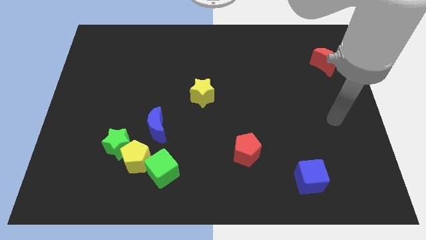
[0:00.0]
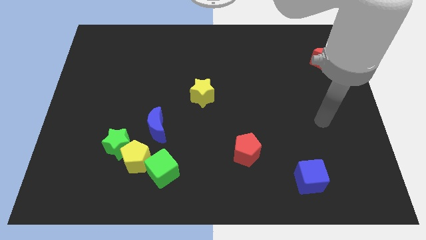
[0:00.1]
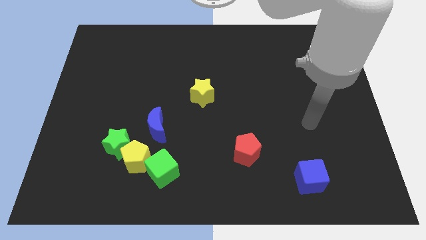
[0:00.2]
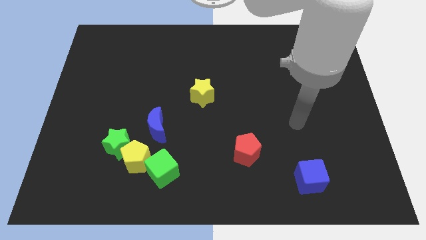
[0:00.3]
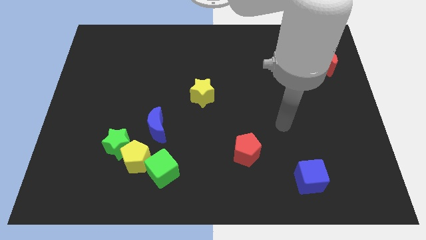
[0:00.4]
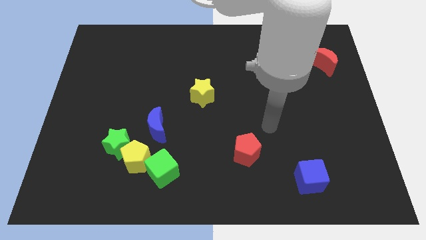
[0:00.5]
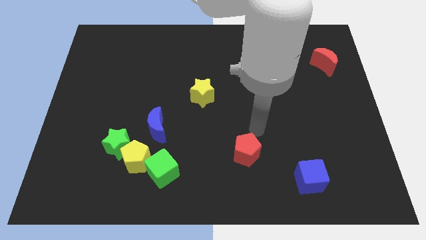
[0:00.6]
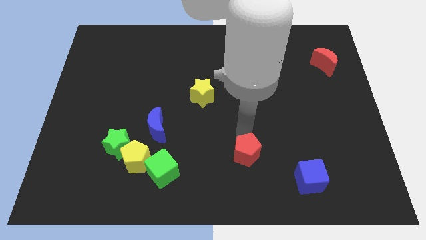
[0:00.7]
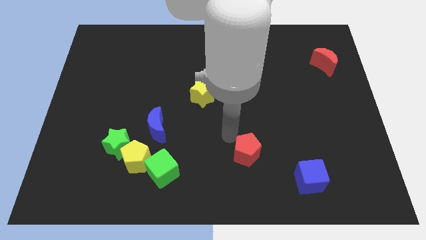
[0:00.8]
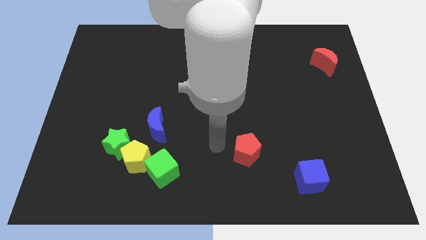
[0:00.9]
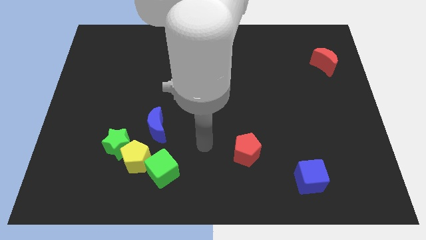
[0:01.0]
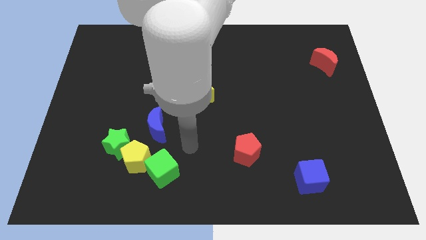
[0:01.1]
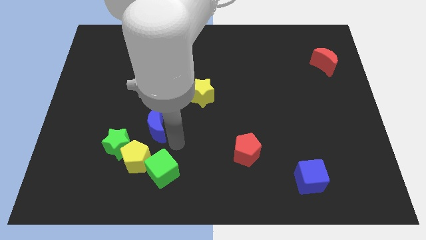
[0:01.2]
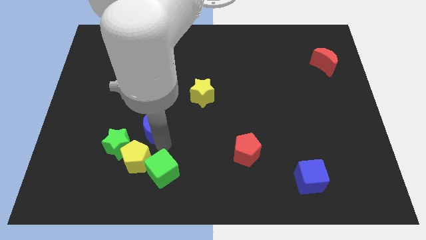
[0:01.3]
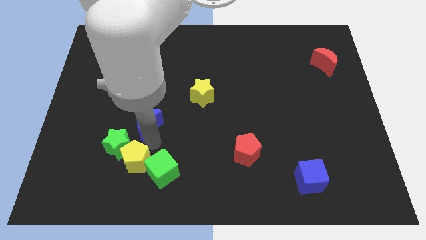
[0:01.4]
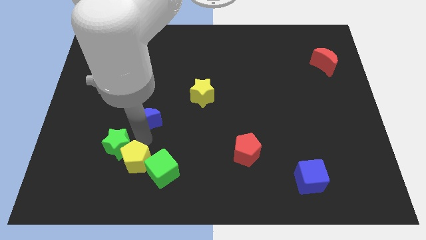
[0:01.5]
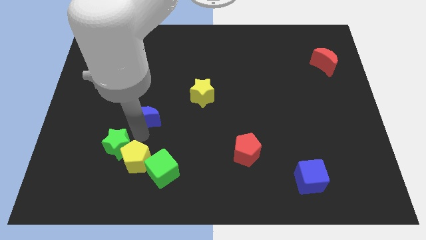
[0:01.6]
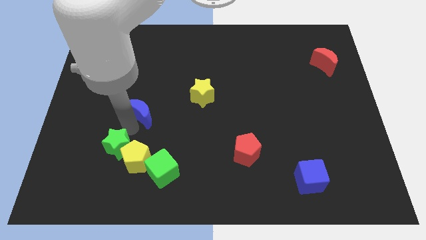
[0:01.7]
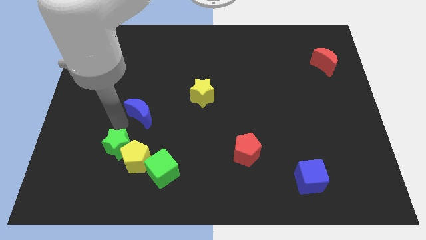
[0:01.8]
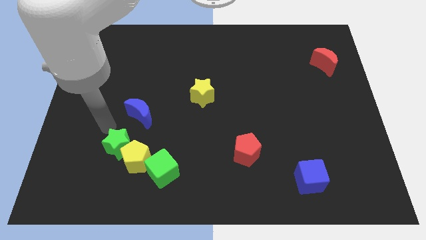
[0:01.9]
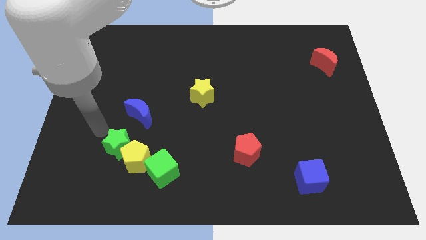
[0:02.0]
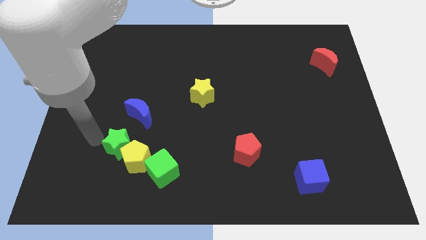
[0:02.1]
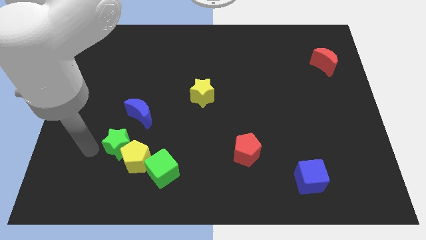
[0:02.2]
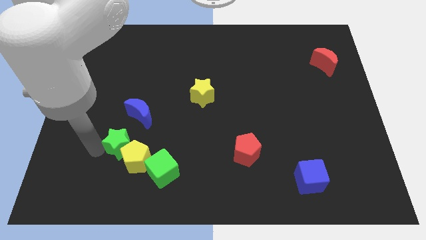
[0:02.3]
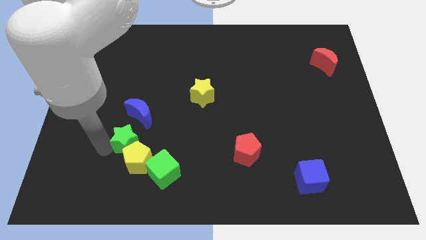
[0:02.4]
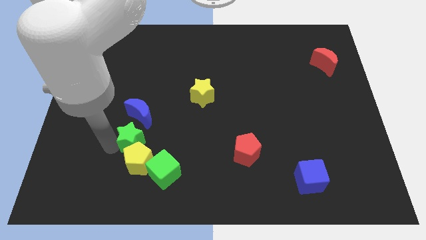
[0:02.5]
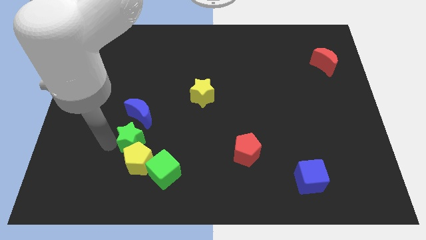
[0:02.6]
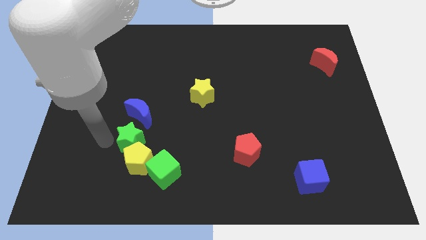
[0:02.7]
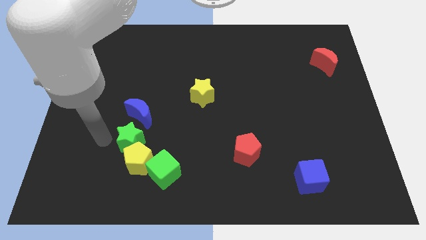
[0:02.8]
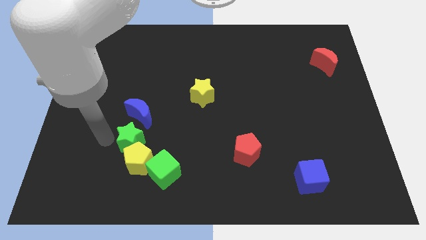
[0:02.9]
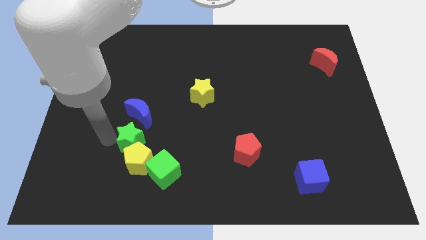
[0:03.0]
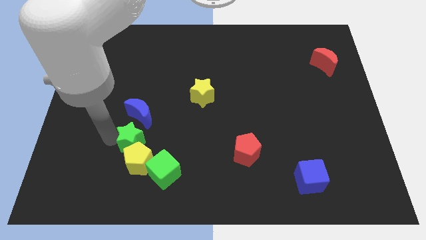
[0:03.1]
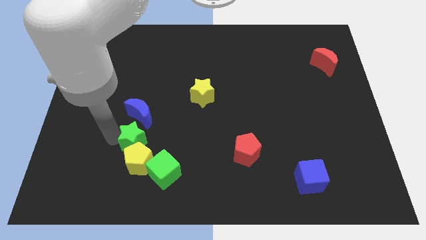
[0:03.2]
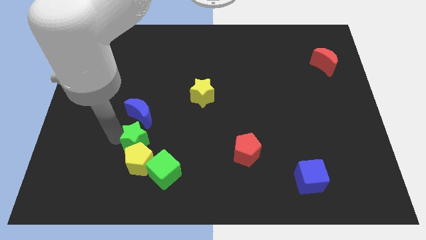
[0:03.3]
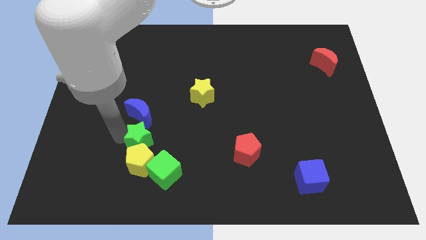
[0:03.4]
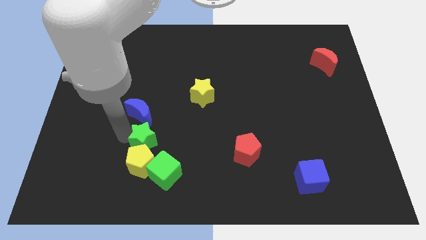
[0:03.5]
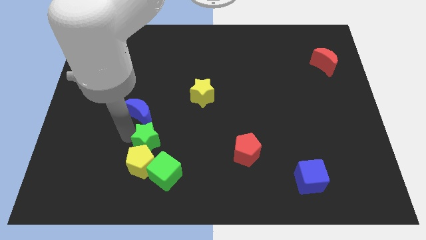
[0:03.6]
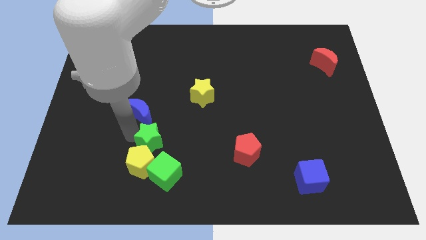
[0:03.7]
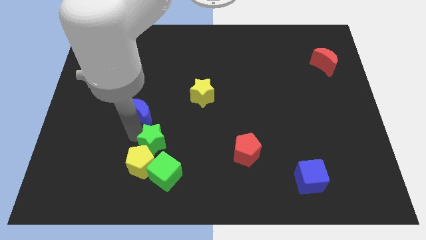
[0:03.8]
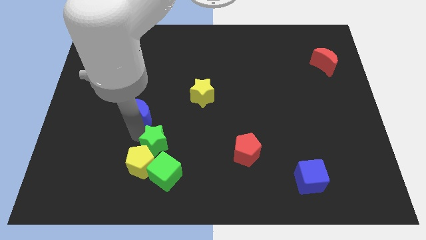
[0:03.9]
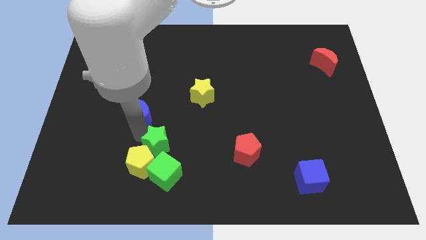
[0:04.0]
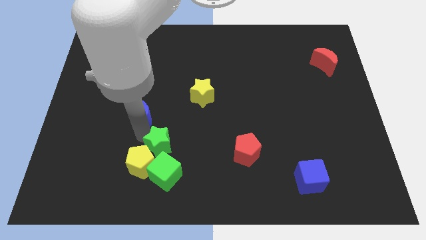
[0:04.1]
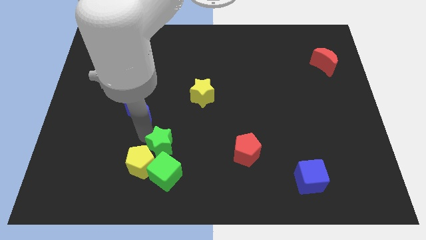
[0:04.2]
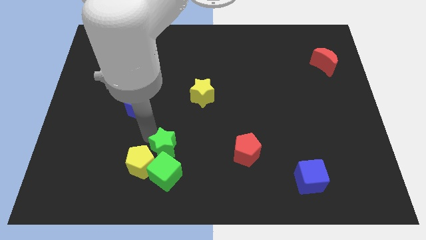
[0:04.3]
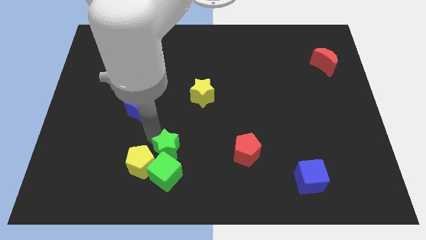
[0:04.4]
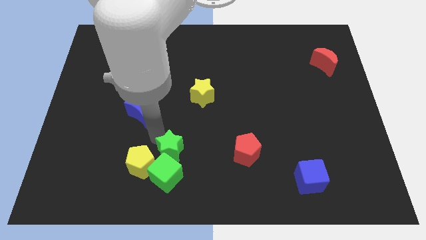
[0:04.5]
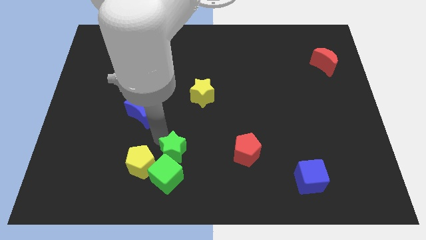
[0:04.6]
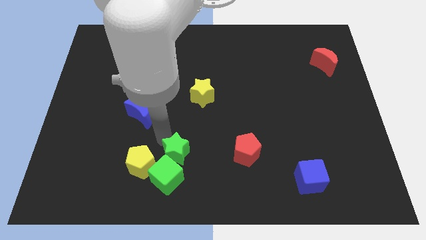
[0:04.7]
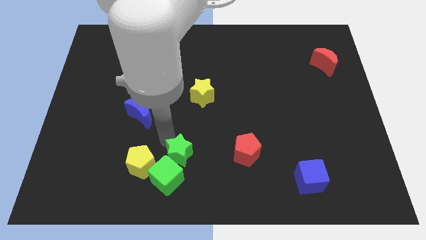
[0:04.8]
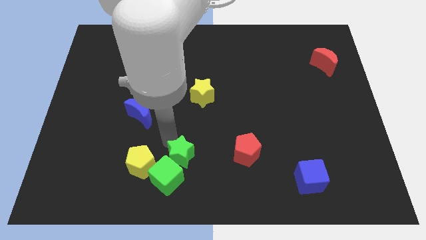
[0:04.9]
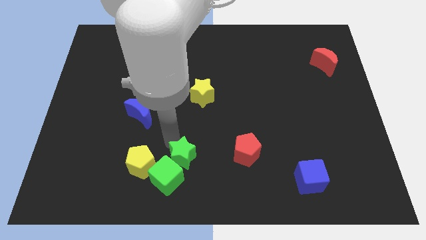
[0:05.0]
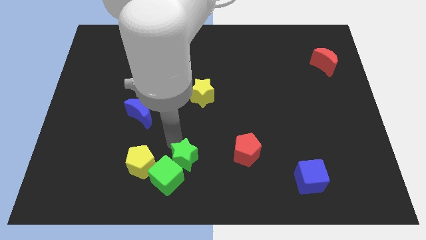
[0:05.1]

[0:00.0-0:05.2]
move the green star to the bottom

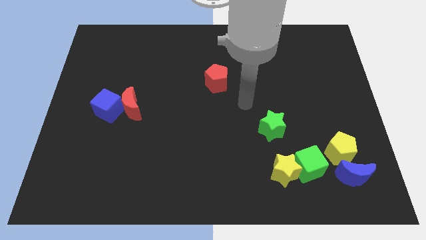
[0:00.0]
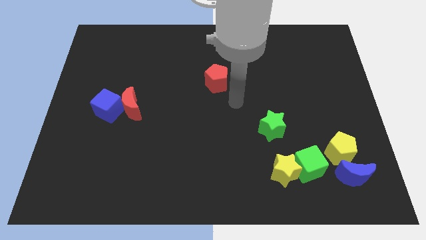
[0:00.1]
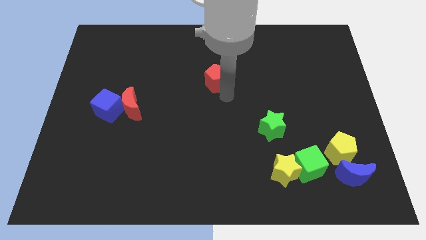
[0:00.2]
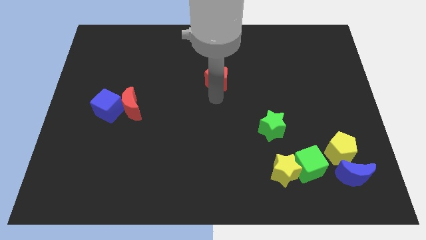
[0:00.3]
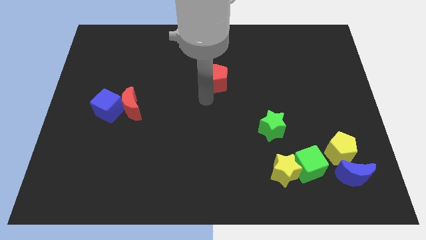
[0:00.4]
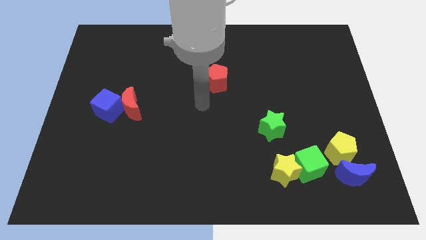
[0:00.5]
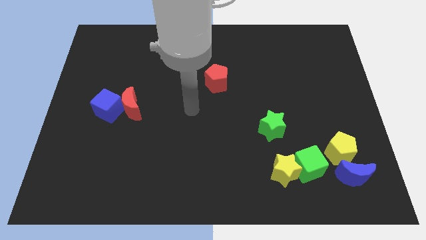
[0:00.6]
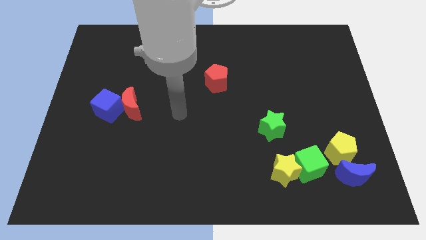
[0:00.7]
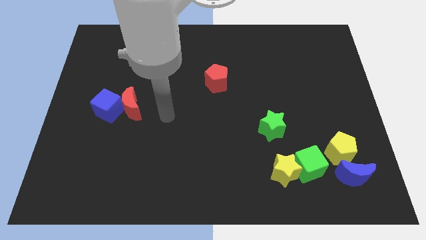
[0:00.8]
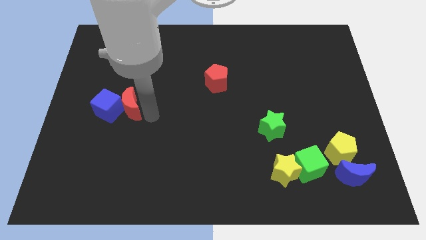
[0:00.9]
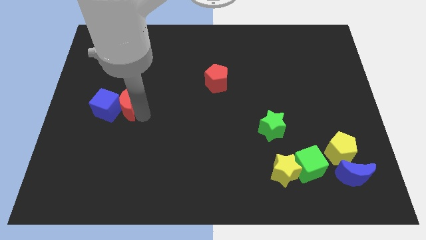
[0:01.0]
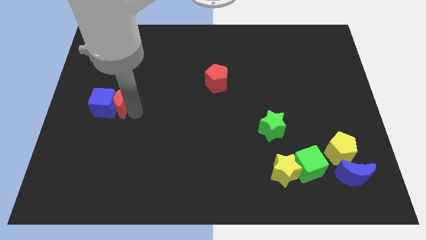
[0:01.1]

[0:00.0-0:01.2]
move the blue cube to the left side
